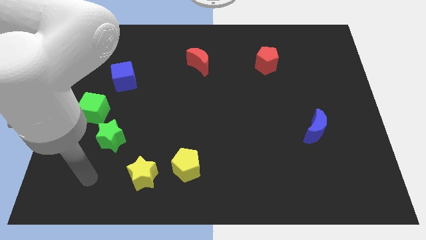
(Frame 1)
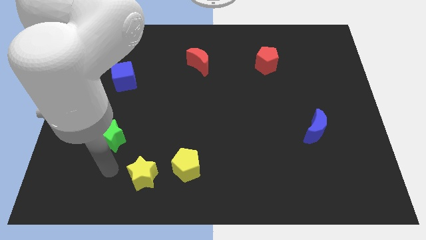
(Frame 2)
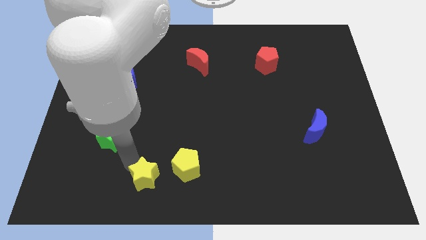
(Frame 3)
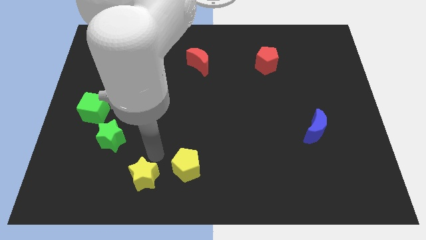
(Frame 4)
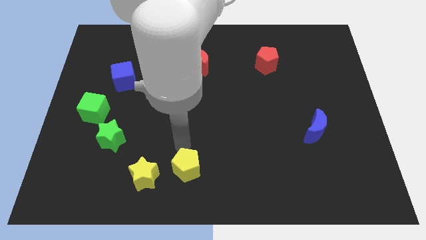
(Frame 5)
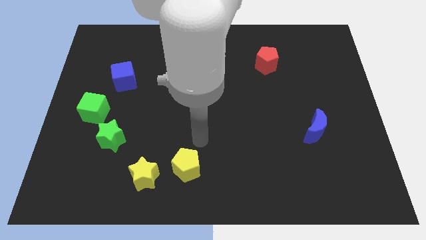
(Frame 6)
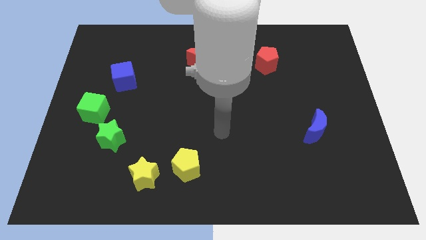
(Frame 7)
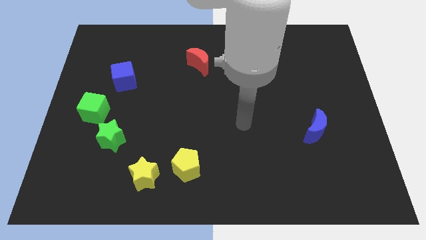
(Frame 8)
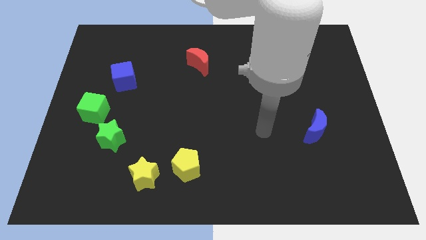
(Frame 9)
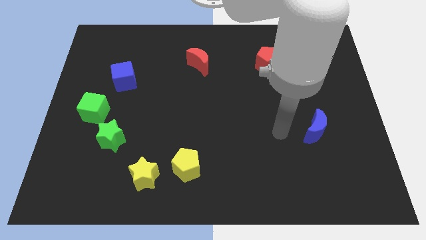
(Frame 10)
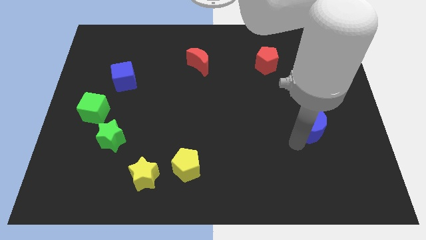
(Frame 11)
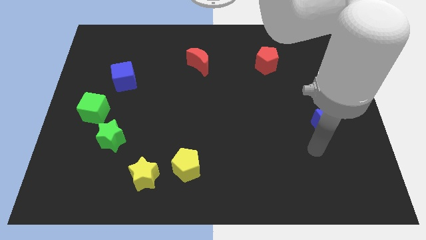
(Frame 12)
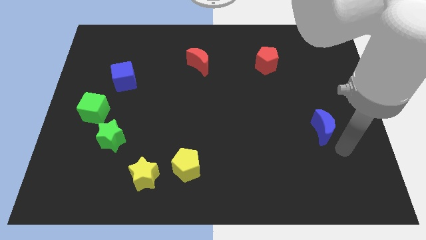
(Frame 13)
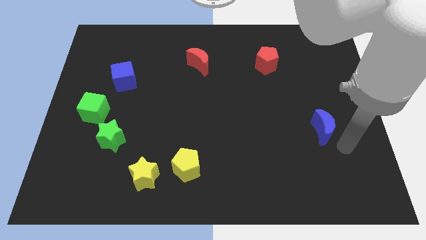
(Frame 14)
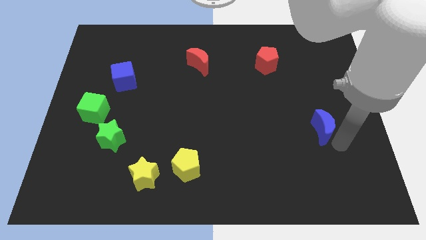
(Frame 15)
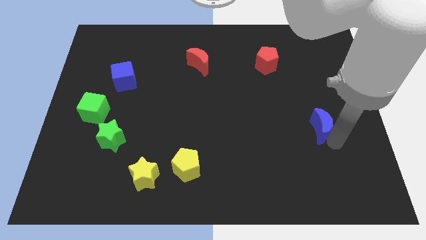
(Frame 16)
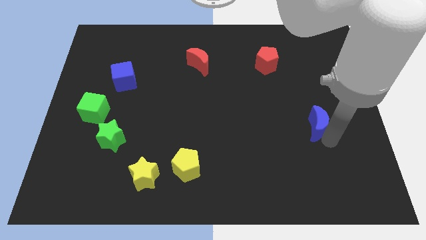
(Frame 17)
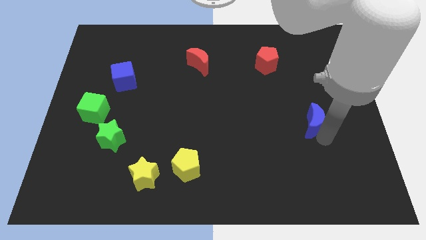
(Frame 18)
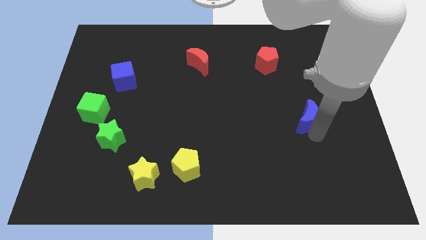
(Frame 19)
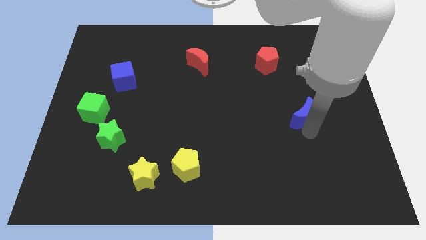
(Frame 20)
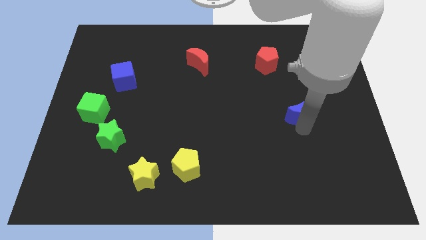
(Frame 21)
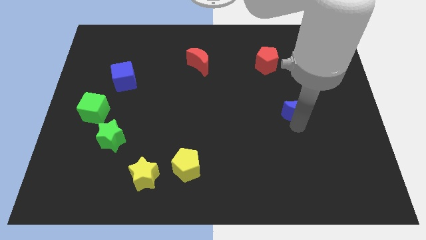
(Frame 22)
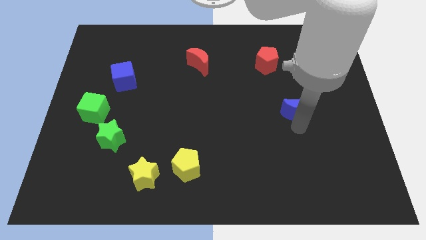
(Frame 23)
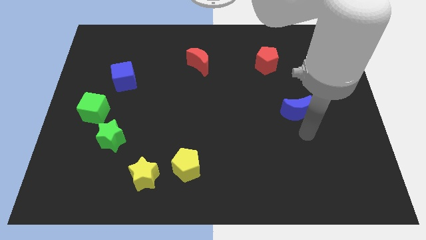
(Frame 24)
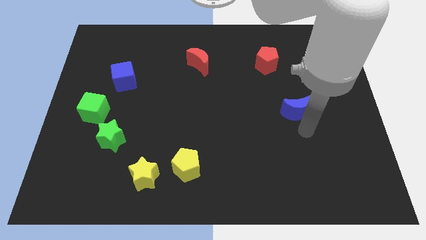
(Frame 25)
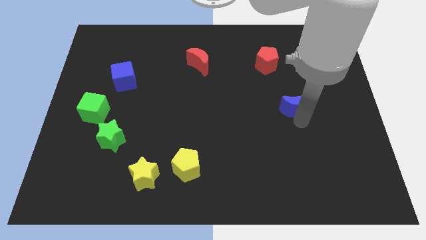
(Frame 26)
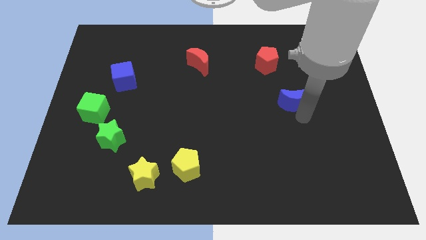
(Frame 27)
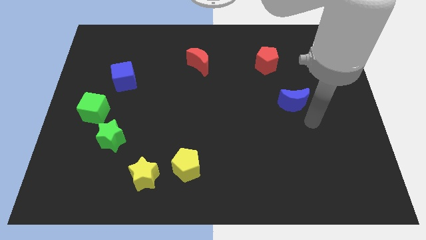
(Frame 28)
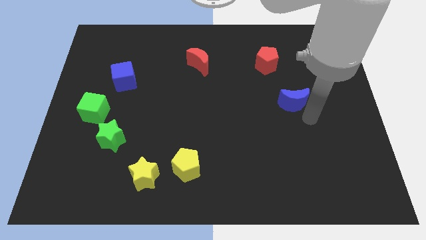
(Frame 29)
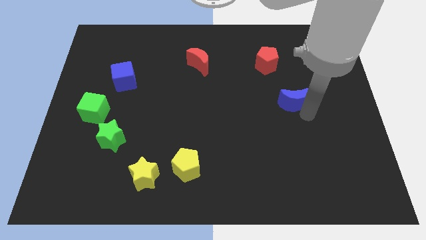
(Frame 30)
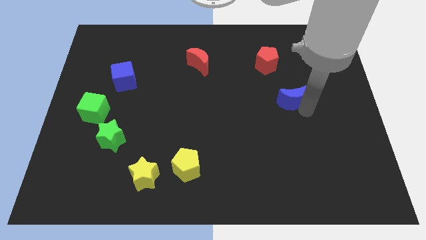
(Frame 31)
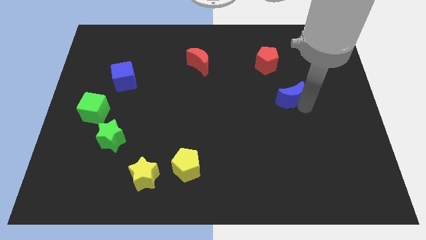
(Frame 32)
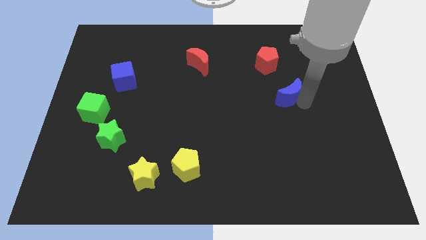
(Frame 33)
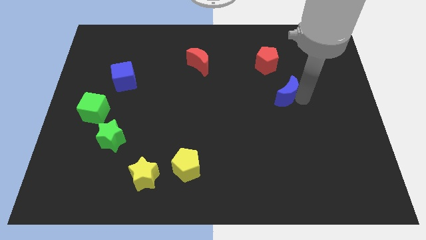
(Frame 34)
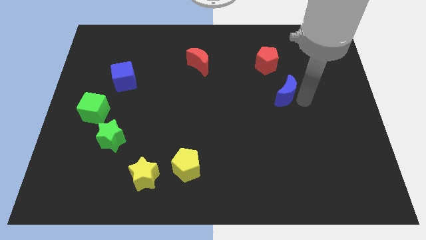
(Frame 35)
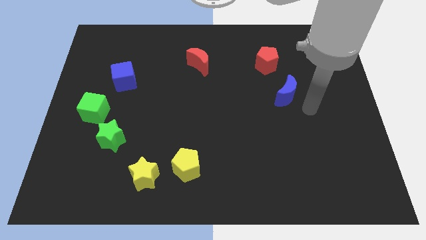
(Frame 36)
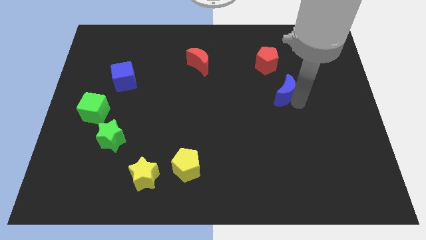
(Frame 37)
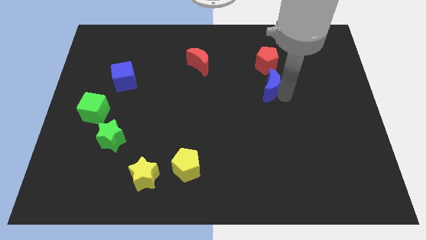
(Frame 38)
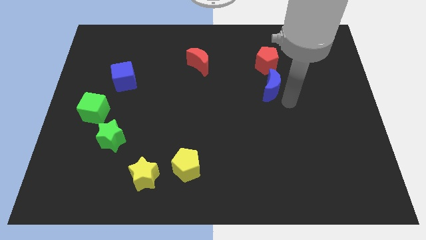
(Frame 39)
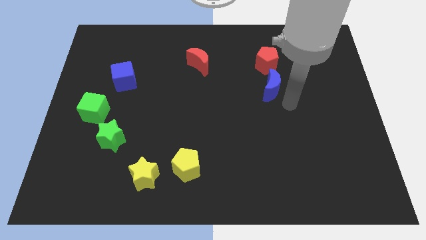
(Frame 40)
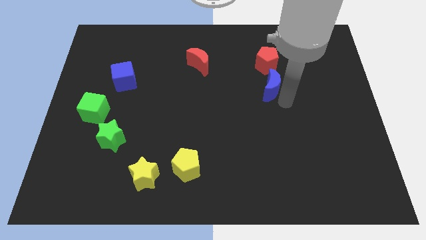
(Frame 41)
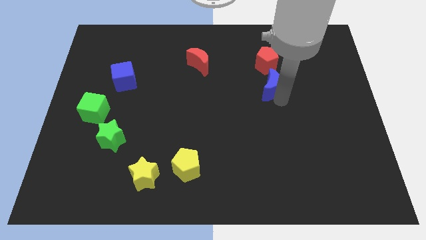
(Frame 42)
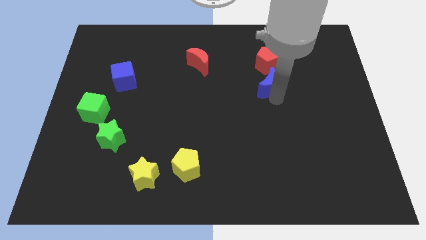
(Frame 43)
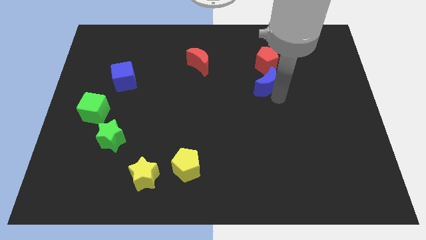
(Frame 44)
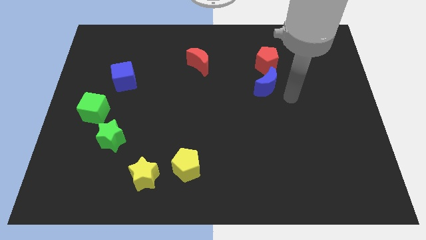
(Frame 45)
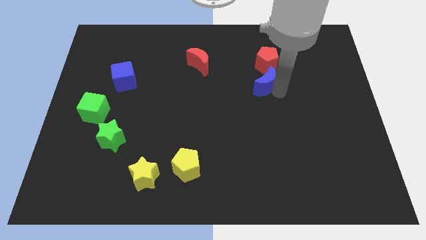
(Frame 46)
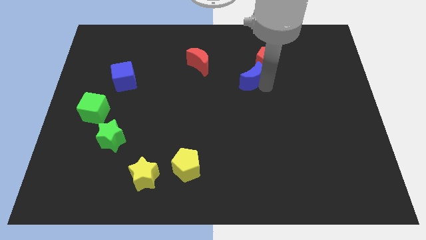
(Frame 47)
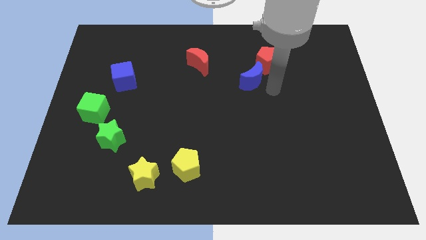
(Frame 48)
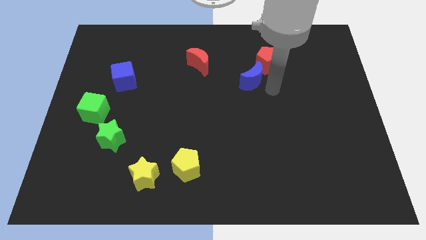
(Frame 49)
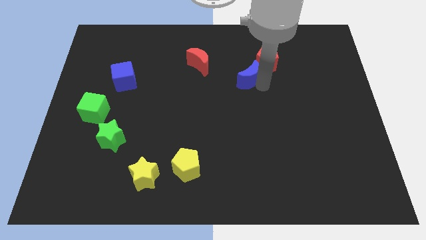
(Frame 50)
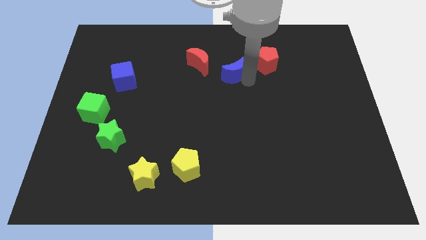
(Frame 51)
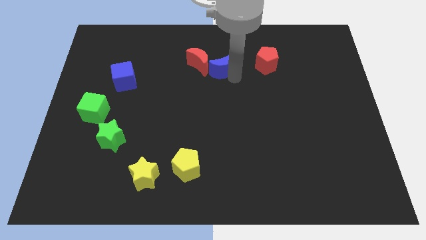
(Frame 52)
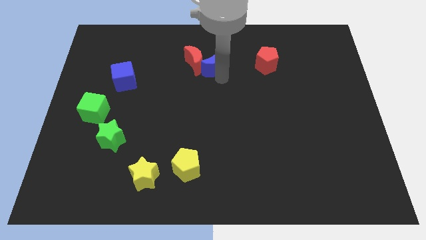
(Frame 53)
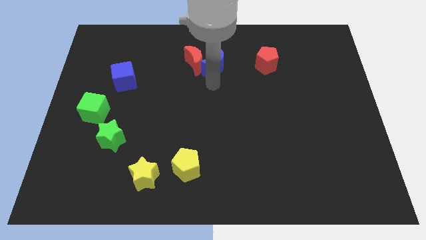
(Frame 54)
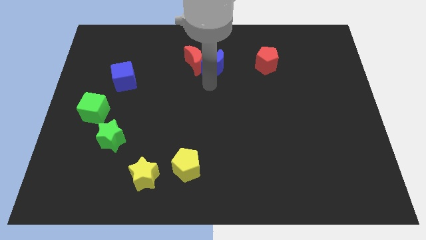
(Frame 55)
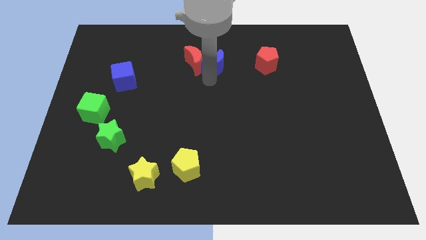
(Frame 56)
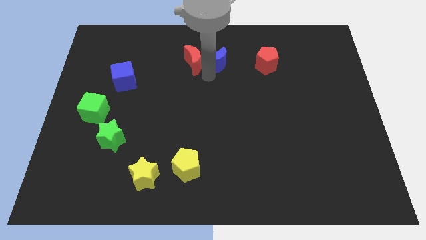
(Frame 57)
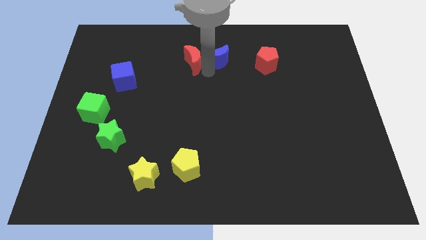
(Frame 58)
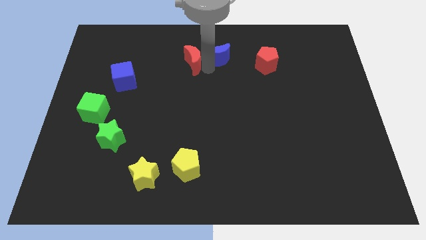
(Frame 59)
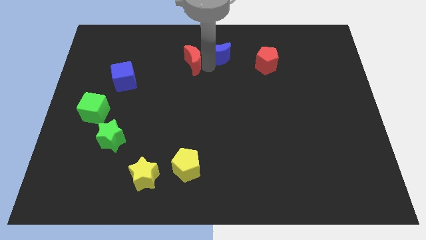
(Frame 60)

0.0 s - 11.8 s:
slide the blue moon to the top

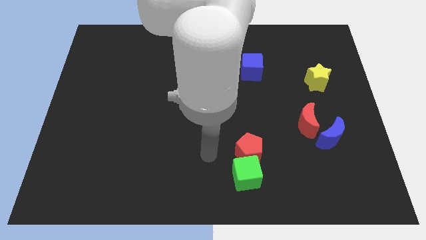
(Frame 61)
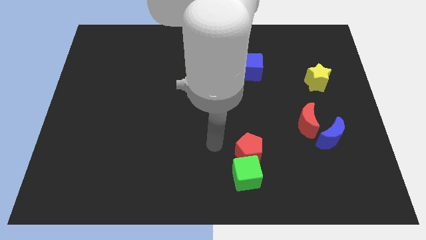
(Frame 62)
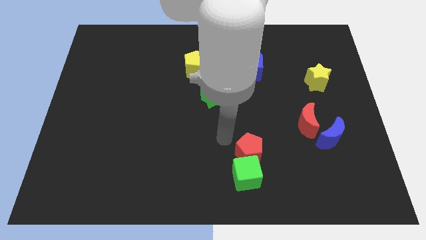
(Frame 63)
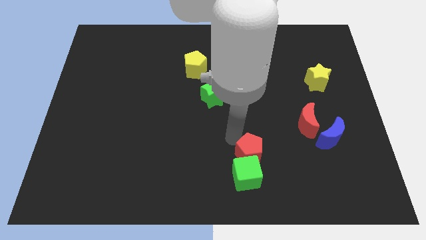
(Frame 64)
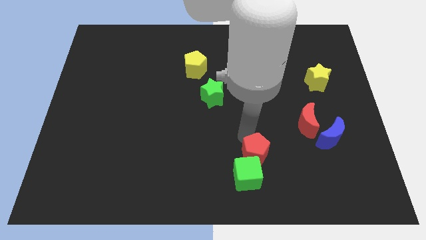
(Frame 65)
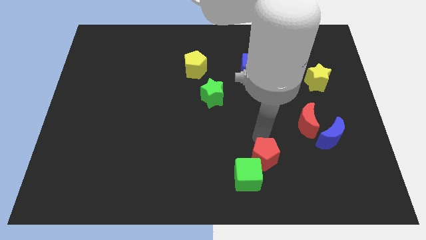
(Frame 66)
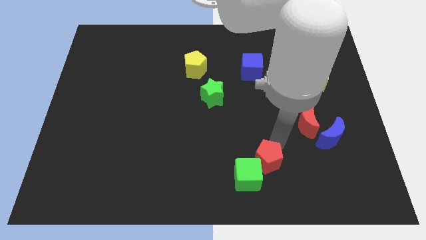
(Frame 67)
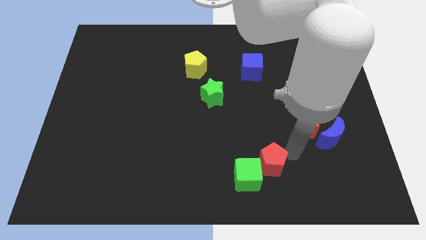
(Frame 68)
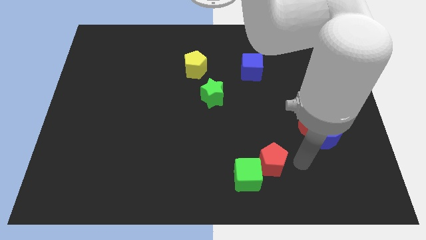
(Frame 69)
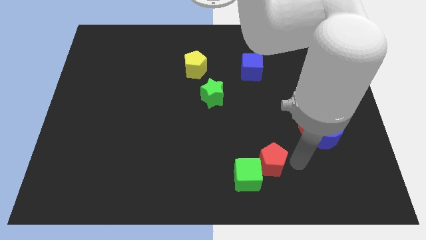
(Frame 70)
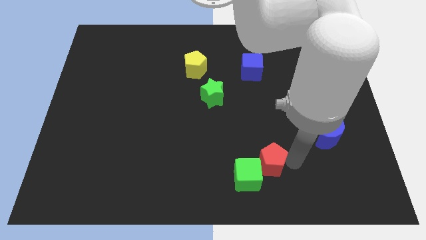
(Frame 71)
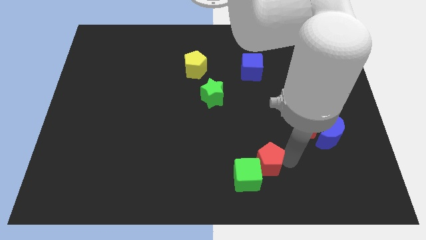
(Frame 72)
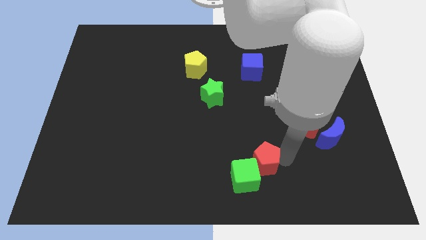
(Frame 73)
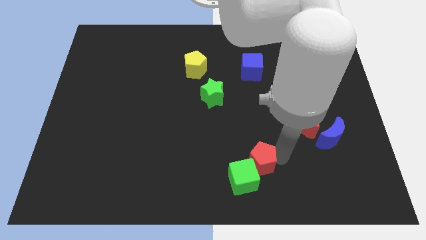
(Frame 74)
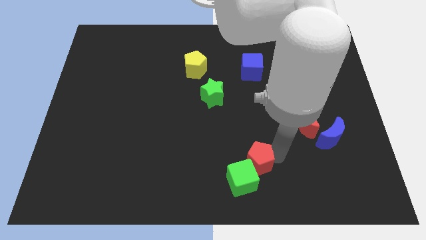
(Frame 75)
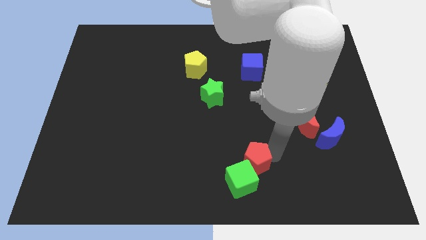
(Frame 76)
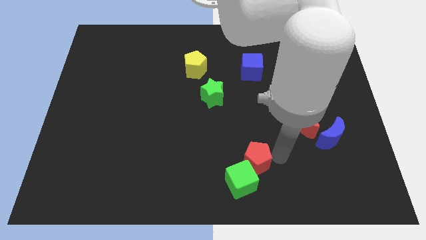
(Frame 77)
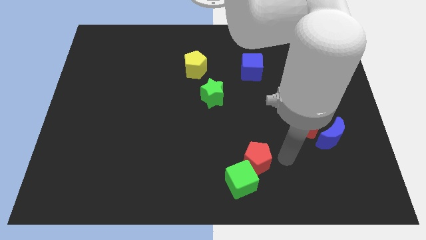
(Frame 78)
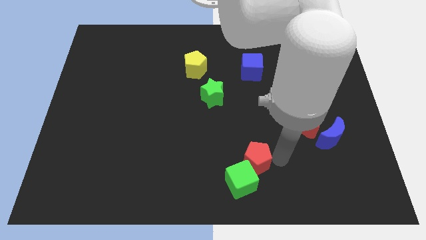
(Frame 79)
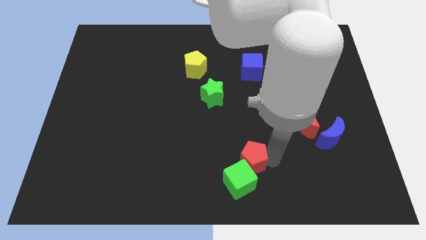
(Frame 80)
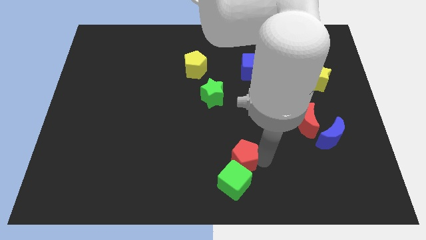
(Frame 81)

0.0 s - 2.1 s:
slide the red pentagon to the bottom side
